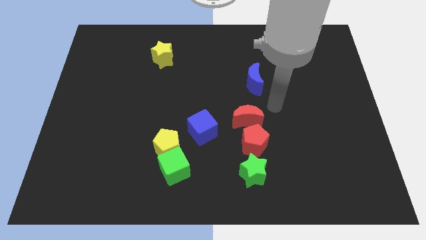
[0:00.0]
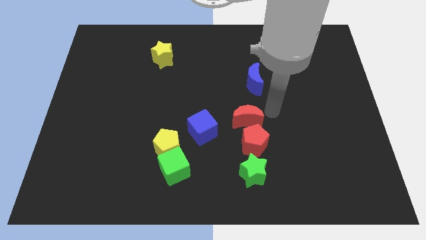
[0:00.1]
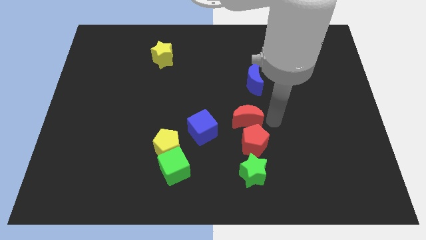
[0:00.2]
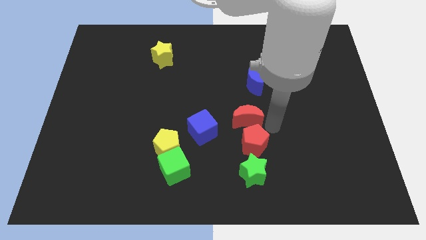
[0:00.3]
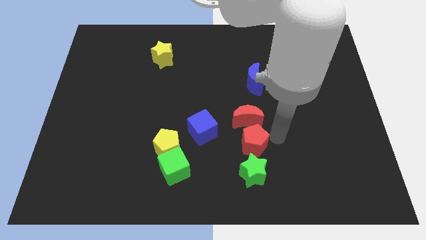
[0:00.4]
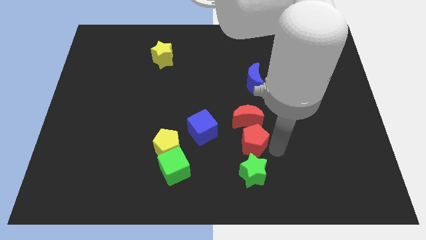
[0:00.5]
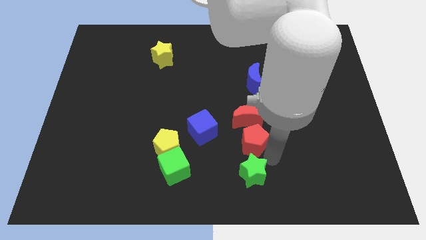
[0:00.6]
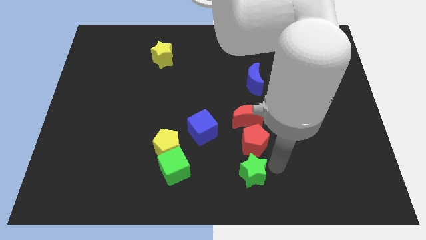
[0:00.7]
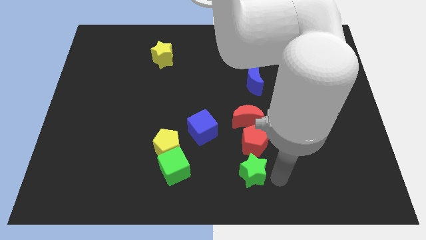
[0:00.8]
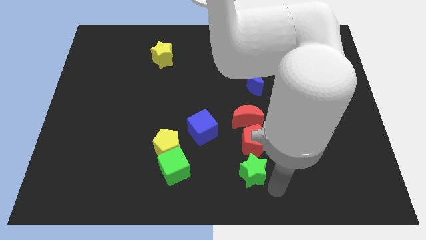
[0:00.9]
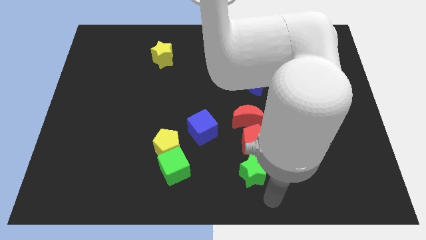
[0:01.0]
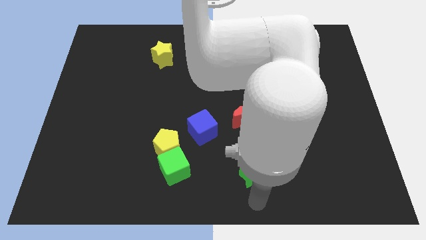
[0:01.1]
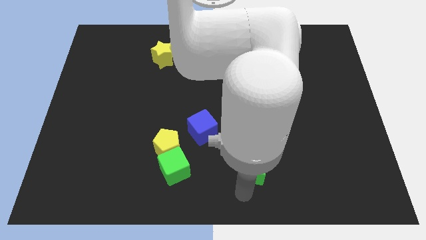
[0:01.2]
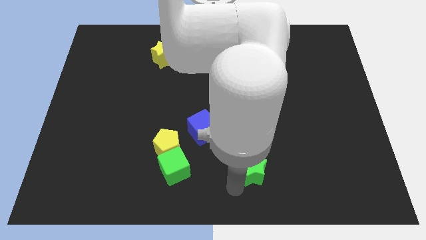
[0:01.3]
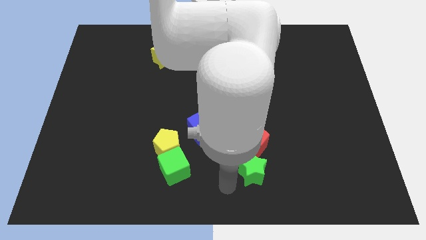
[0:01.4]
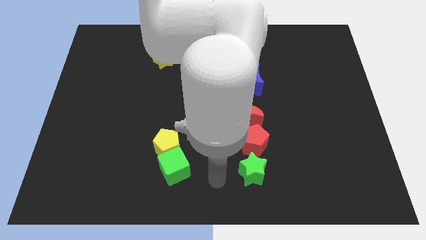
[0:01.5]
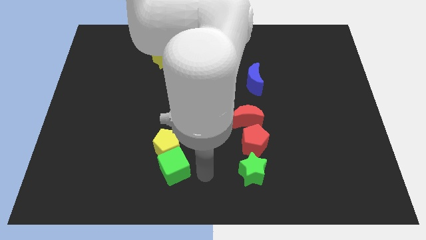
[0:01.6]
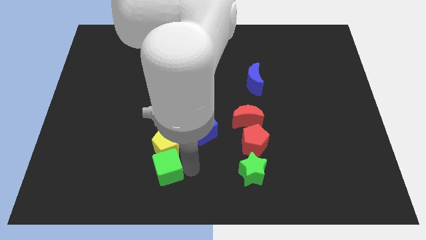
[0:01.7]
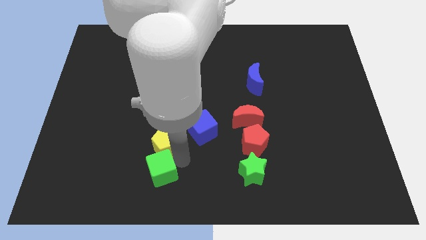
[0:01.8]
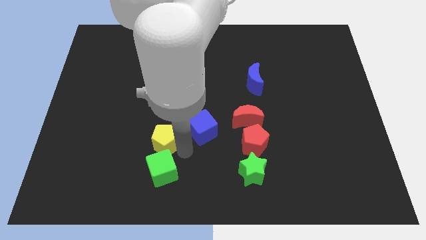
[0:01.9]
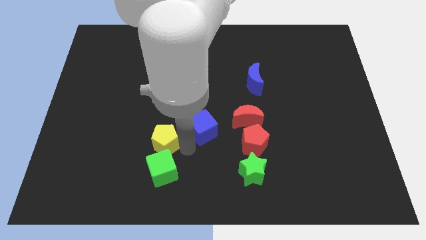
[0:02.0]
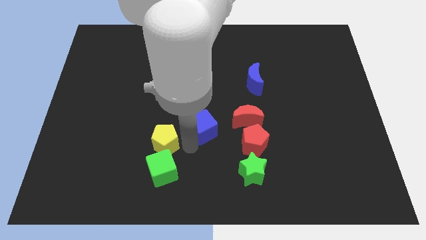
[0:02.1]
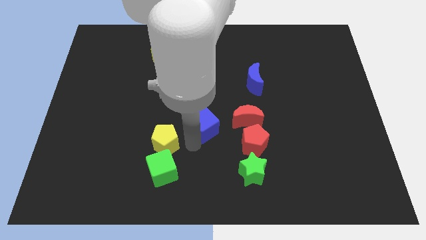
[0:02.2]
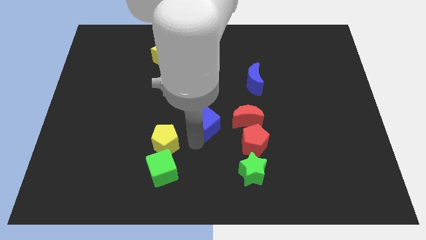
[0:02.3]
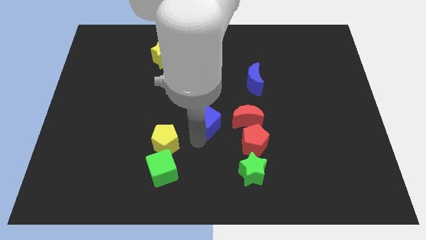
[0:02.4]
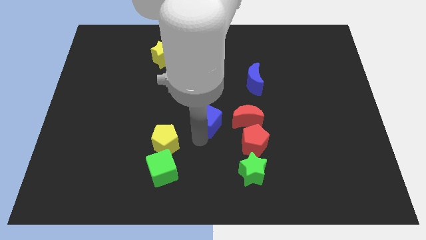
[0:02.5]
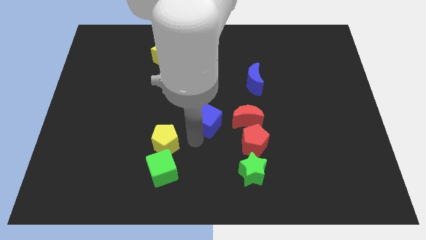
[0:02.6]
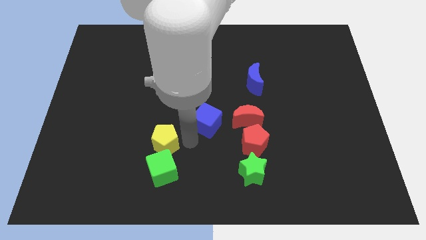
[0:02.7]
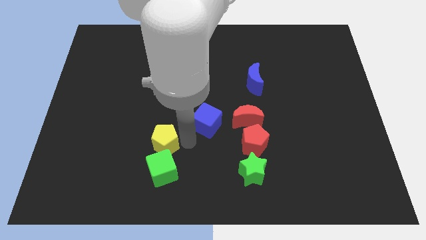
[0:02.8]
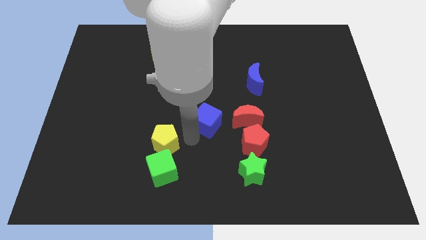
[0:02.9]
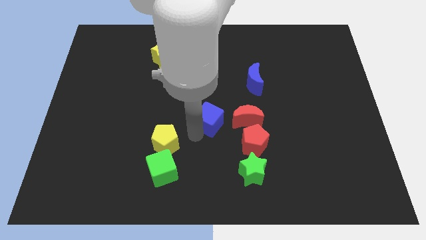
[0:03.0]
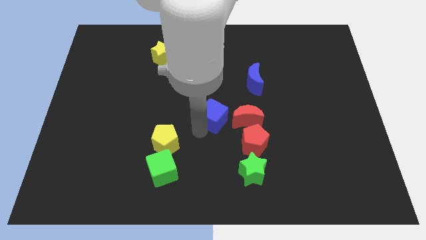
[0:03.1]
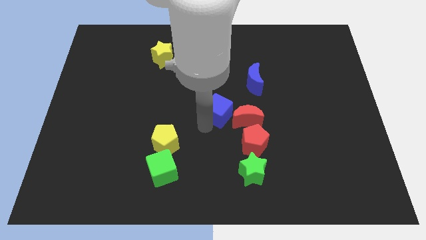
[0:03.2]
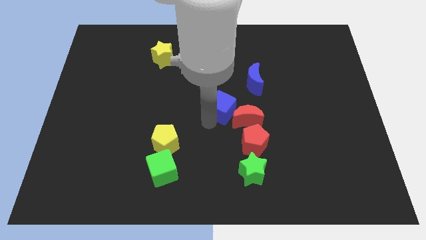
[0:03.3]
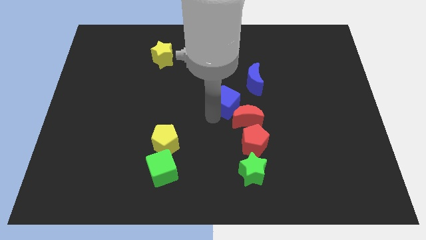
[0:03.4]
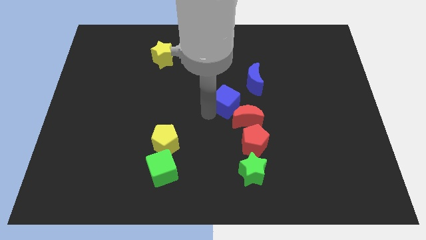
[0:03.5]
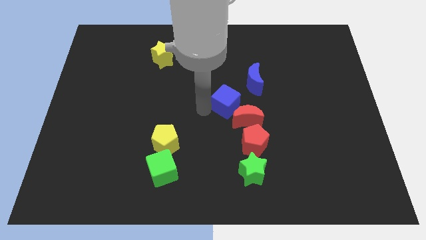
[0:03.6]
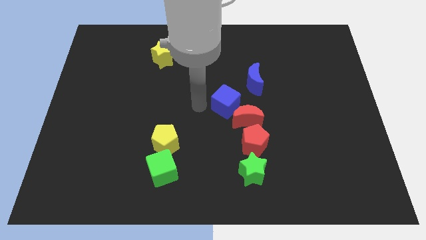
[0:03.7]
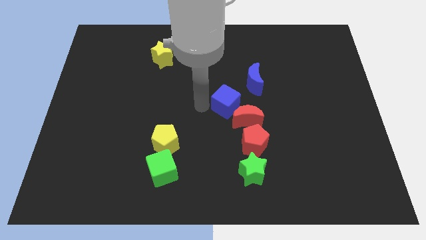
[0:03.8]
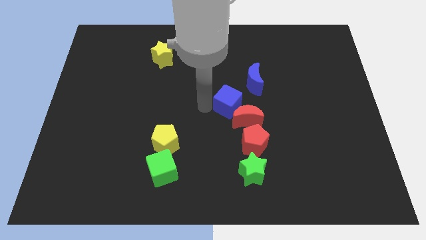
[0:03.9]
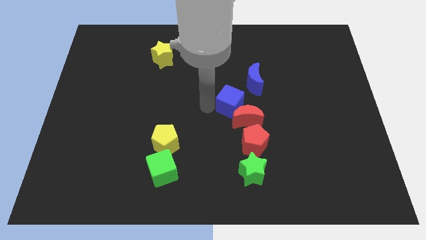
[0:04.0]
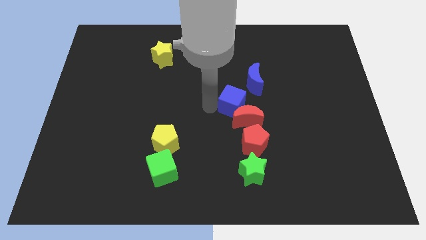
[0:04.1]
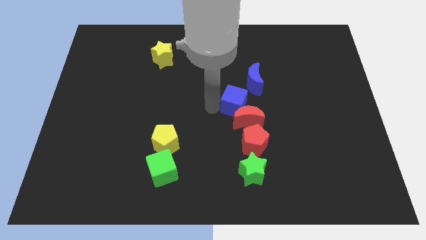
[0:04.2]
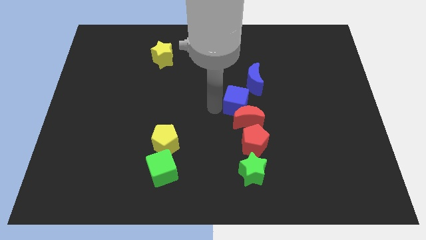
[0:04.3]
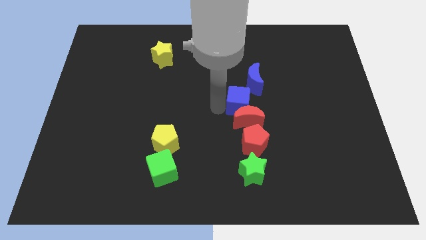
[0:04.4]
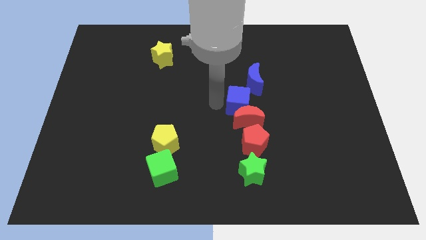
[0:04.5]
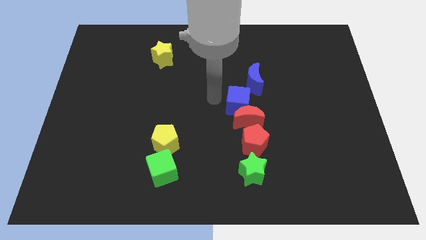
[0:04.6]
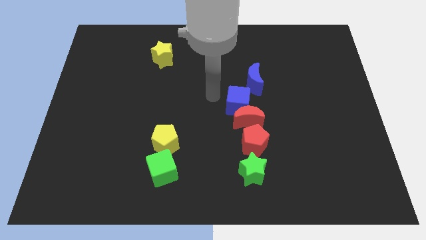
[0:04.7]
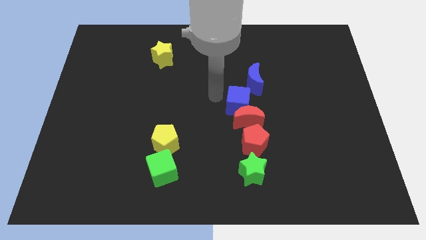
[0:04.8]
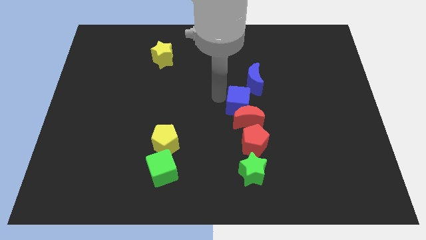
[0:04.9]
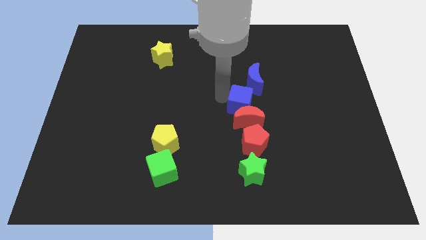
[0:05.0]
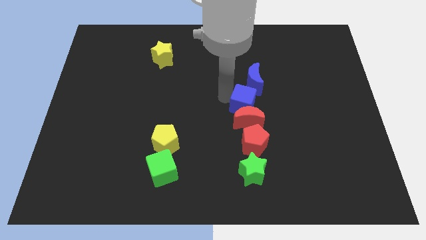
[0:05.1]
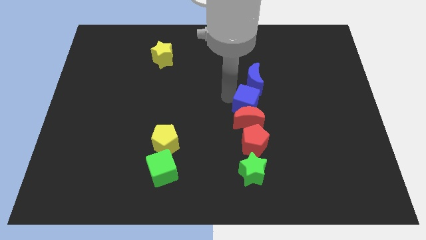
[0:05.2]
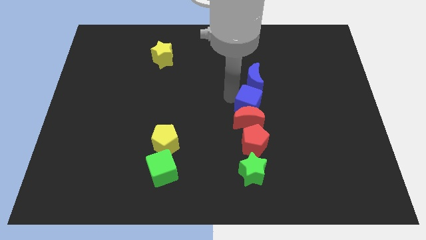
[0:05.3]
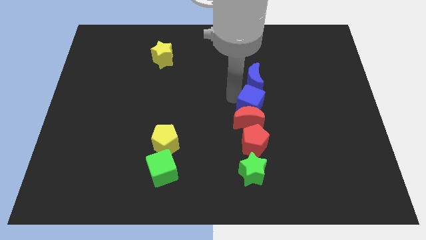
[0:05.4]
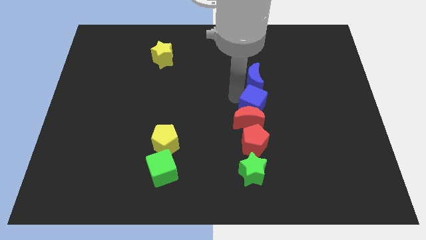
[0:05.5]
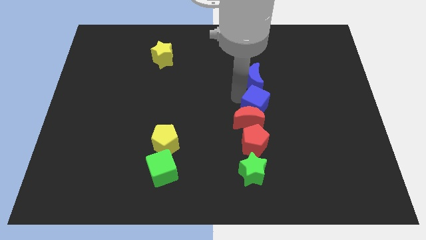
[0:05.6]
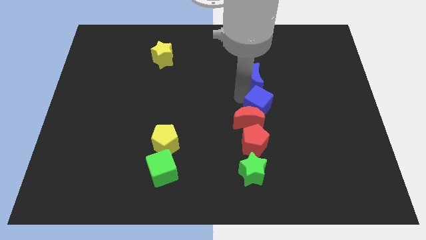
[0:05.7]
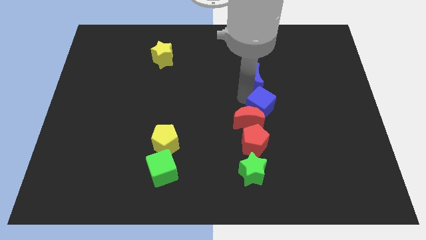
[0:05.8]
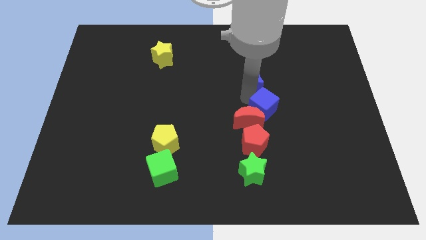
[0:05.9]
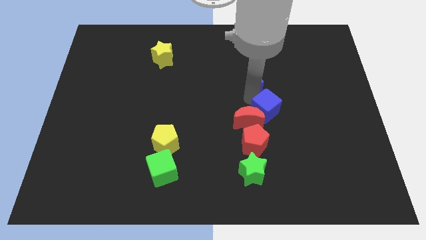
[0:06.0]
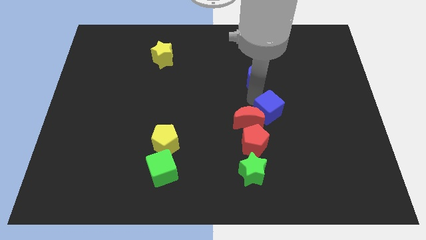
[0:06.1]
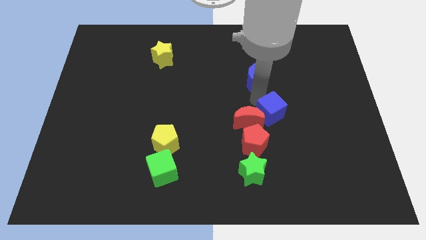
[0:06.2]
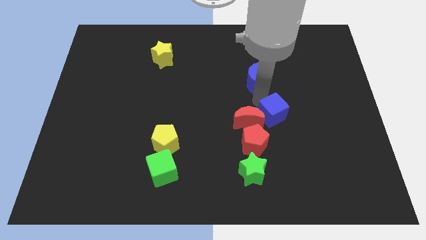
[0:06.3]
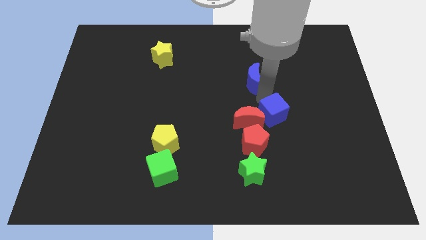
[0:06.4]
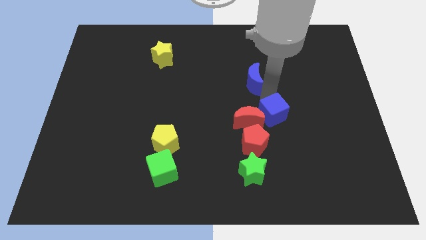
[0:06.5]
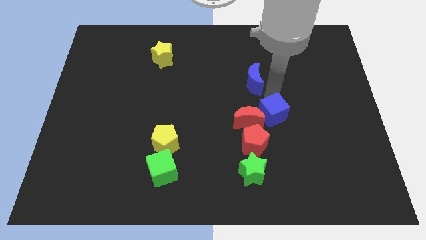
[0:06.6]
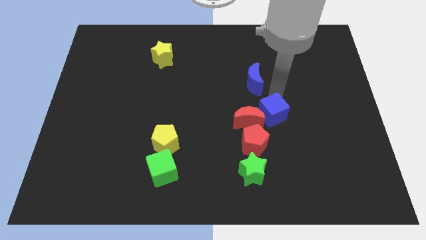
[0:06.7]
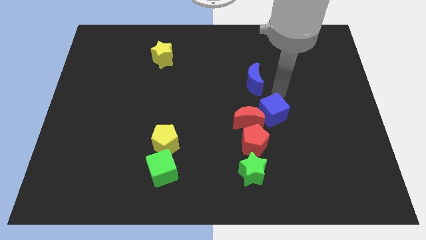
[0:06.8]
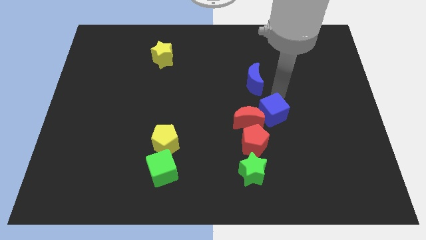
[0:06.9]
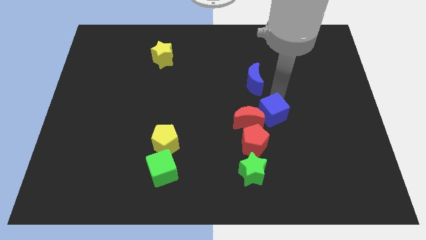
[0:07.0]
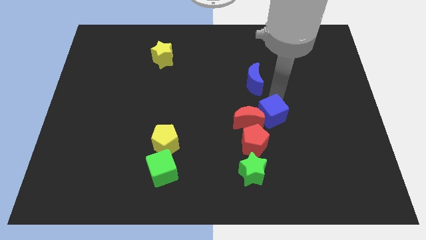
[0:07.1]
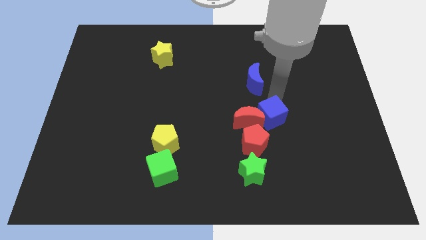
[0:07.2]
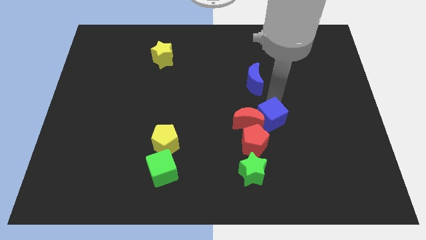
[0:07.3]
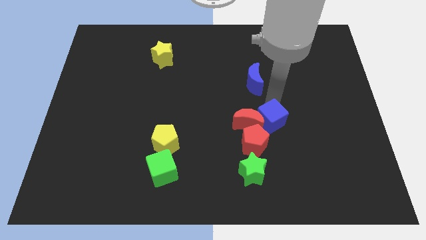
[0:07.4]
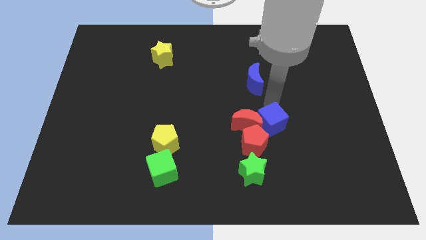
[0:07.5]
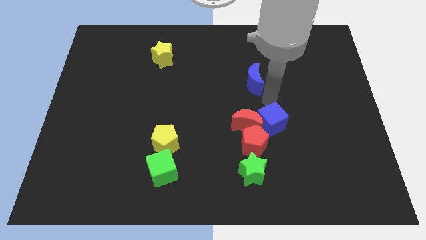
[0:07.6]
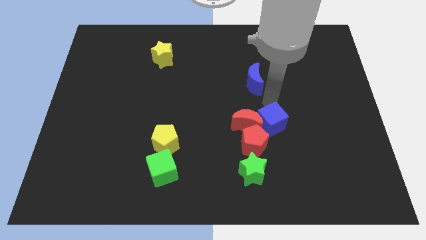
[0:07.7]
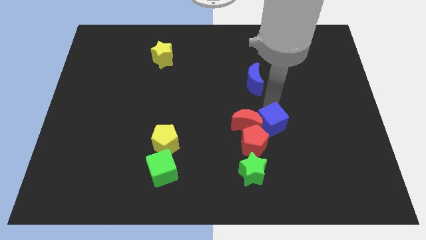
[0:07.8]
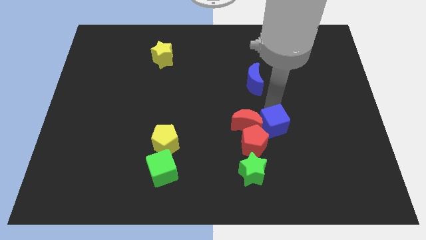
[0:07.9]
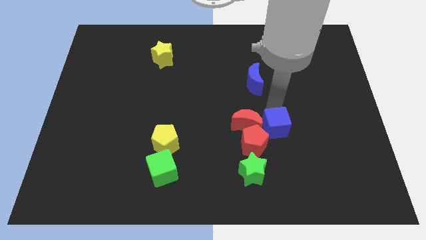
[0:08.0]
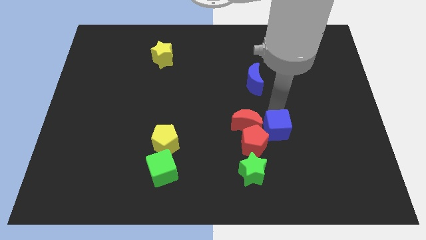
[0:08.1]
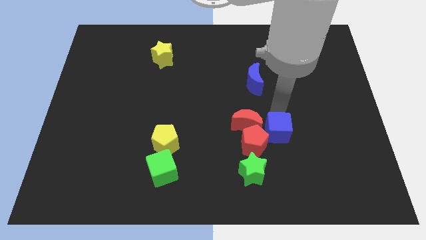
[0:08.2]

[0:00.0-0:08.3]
push the blue cube to the top right side of the green star
